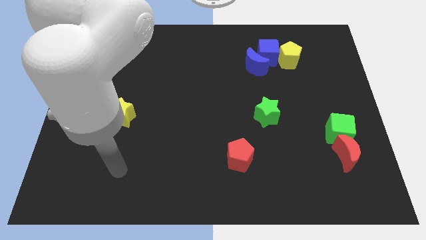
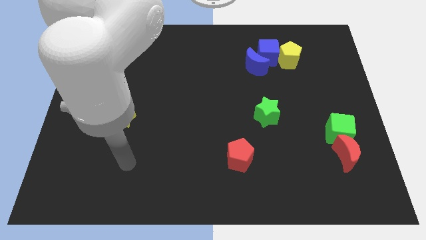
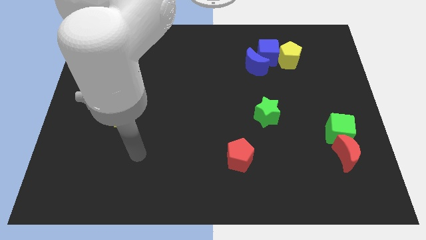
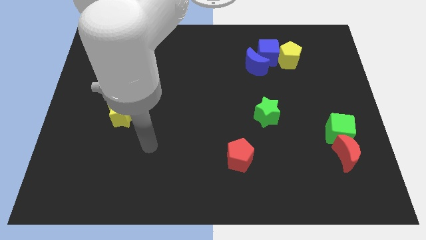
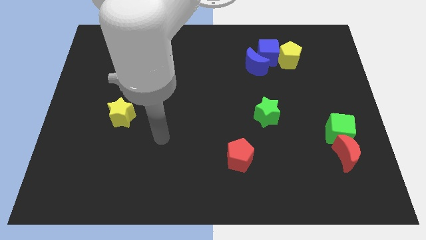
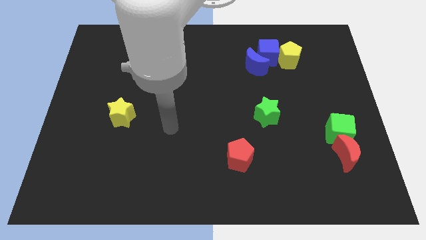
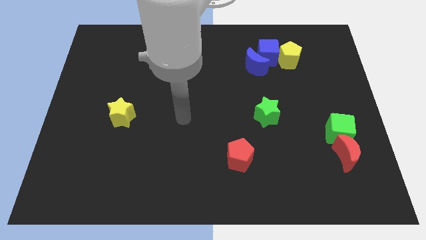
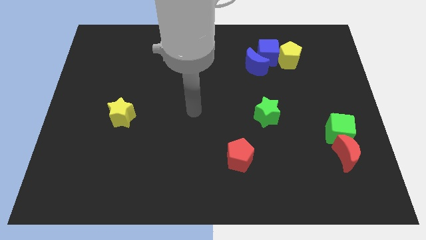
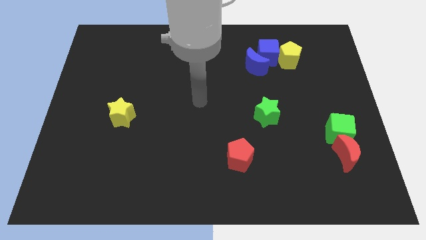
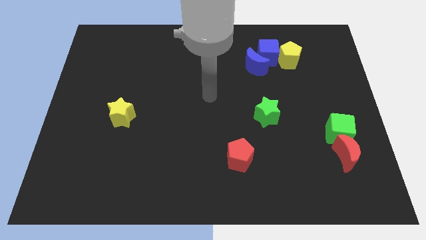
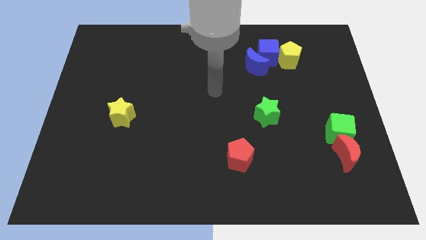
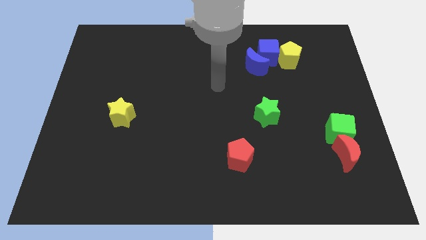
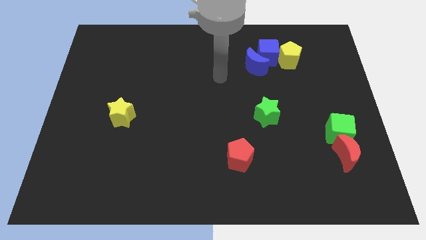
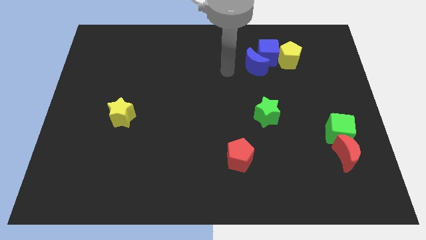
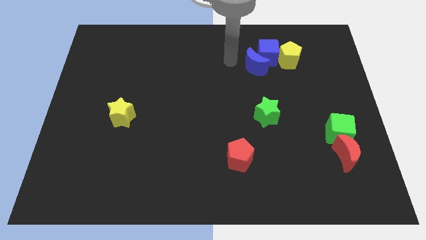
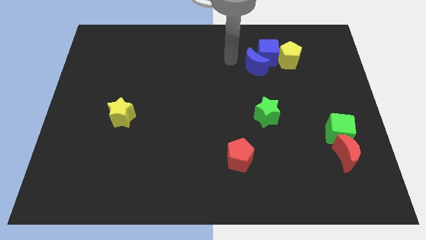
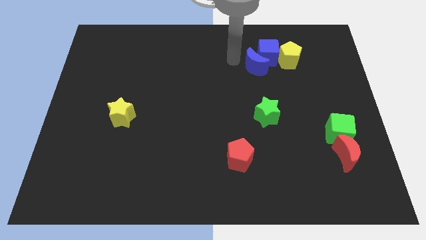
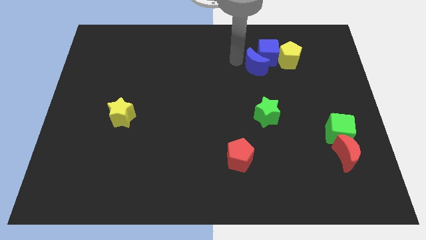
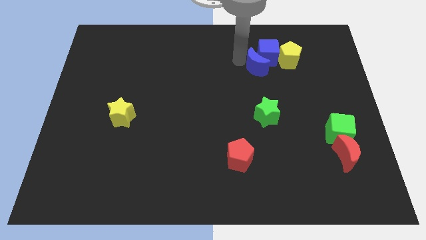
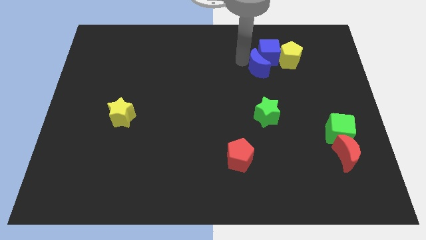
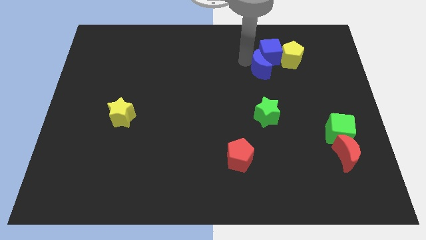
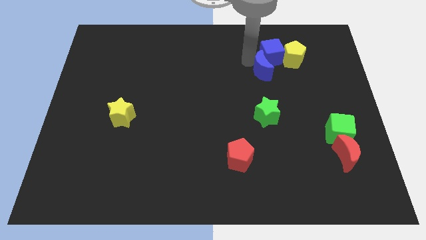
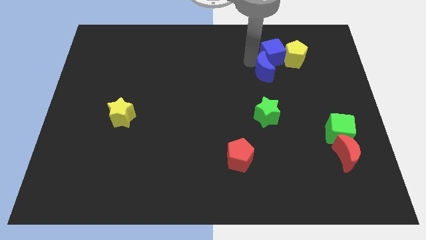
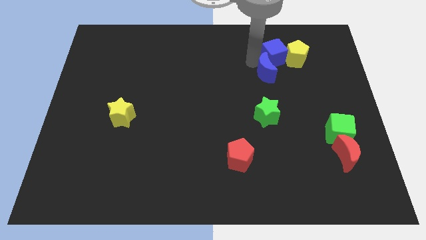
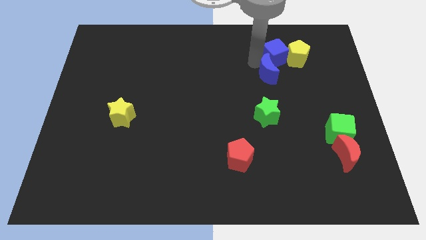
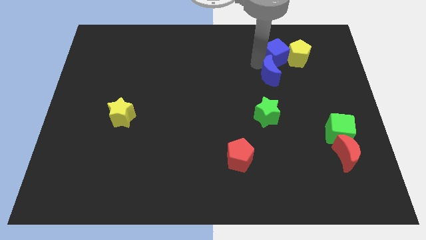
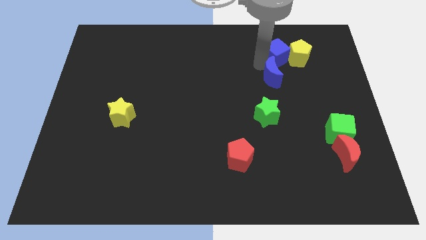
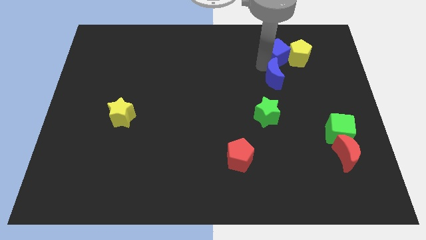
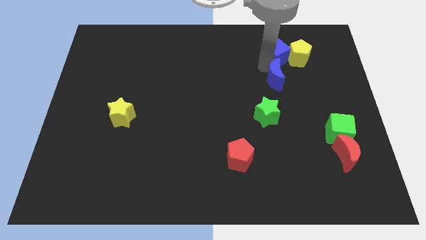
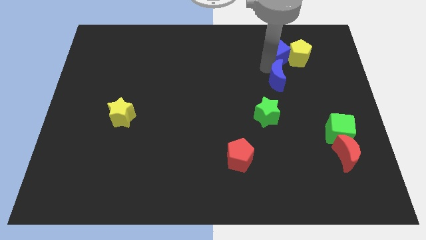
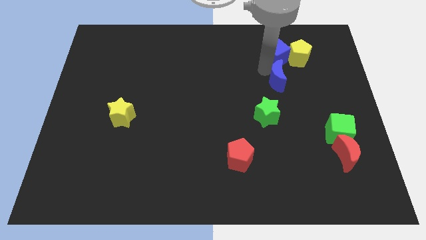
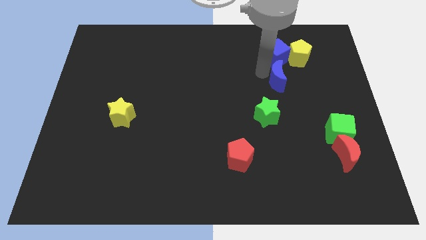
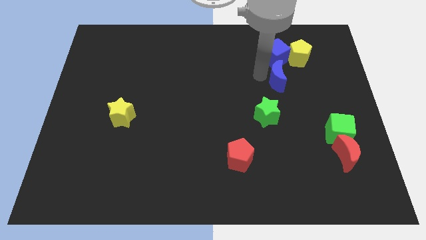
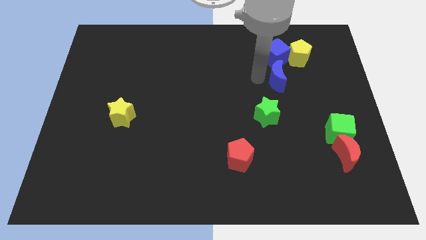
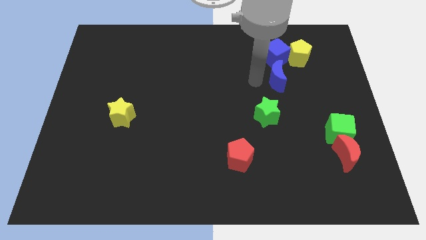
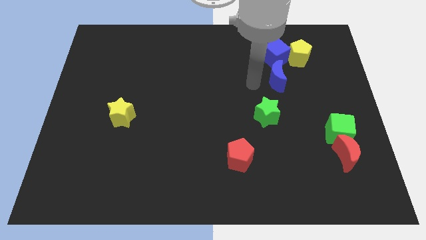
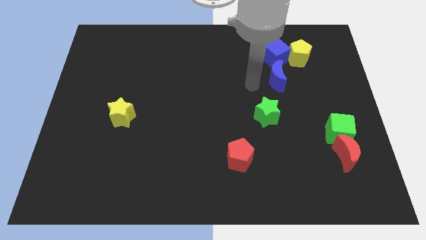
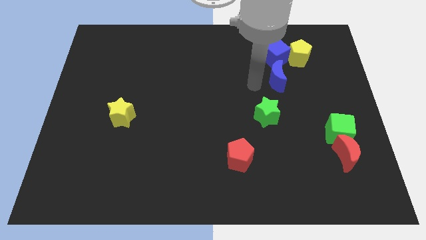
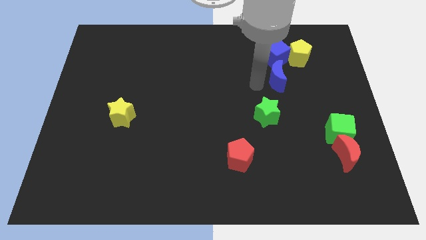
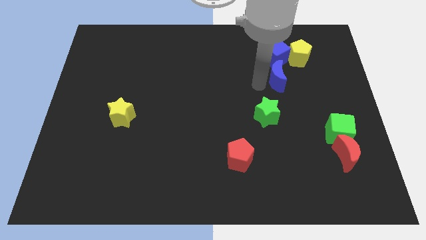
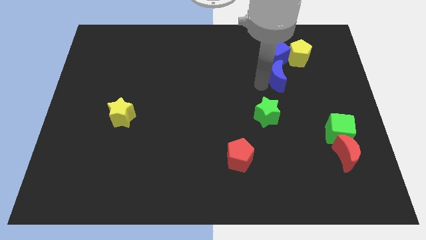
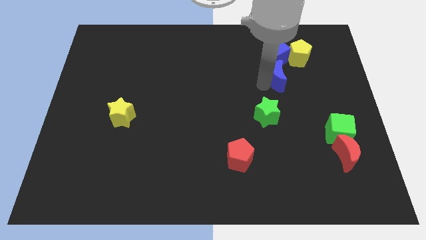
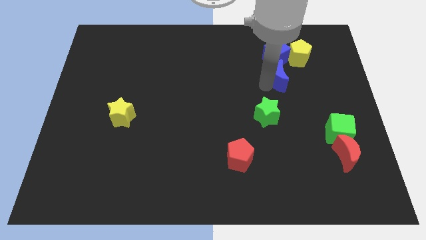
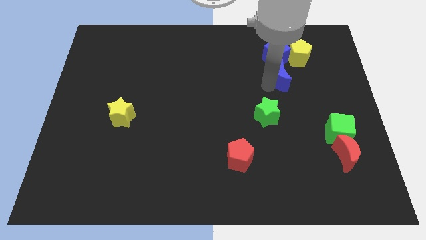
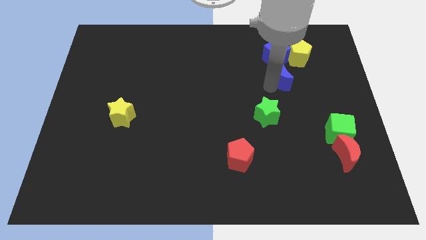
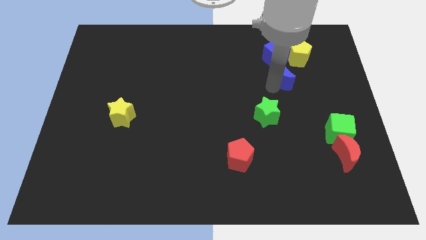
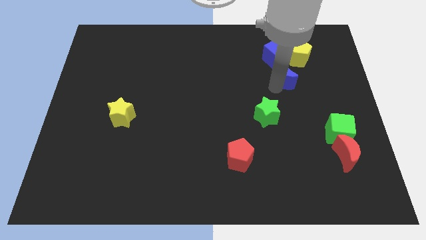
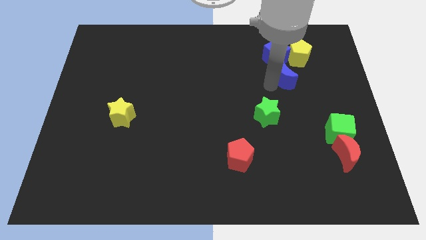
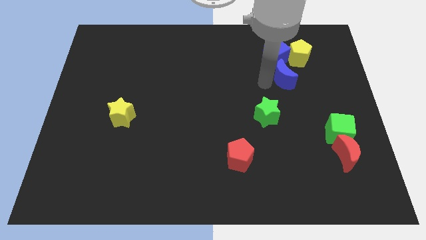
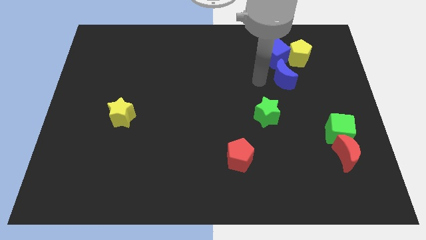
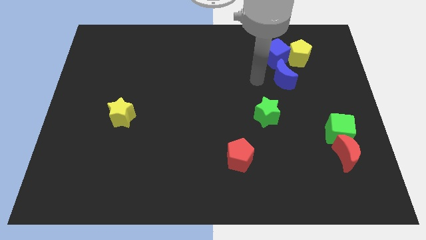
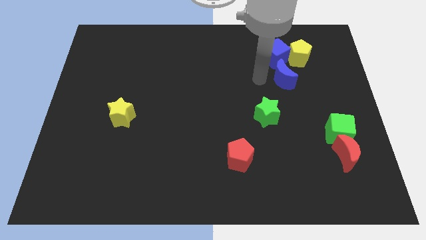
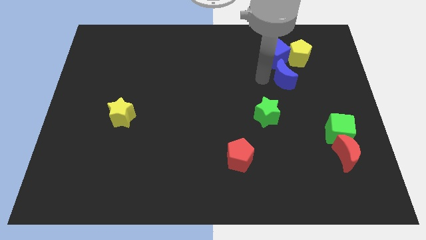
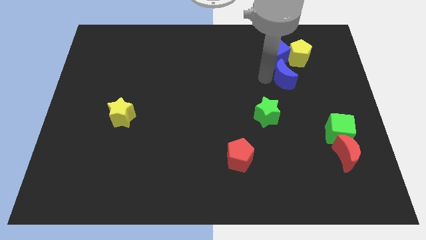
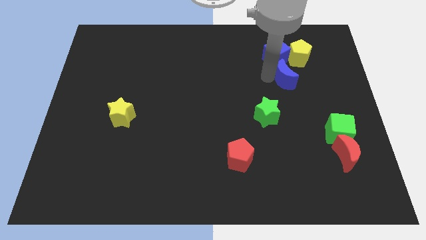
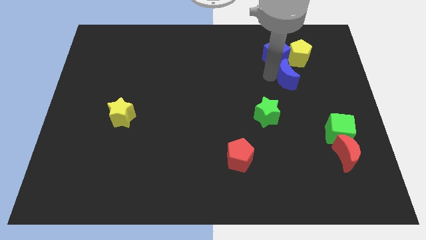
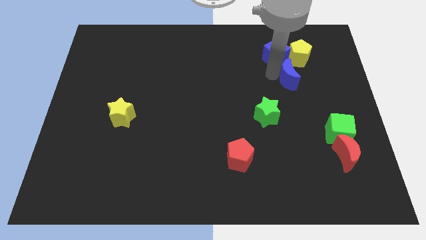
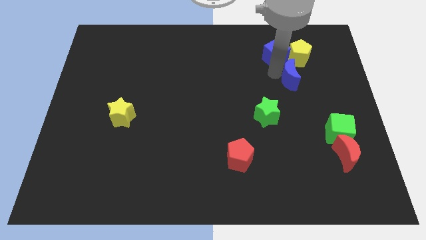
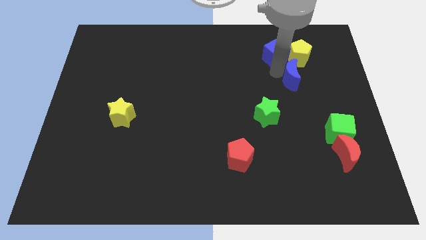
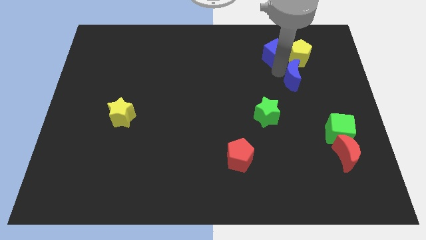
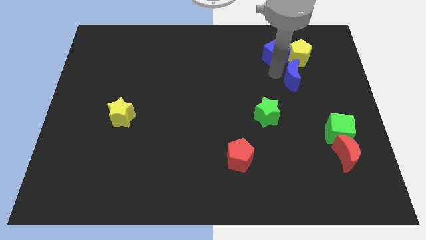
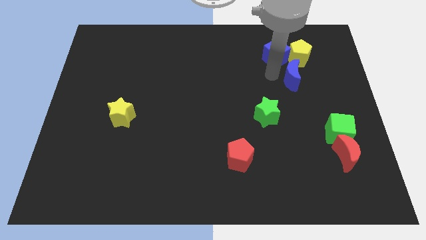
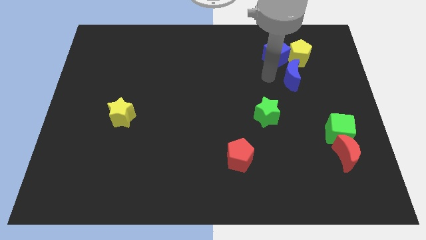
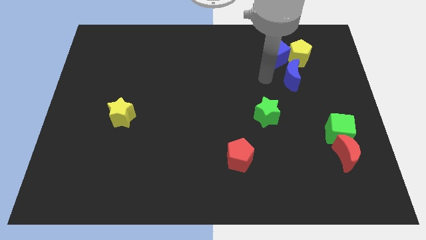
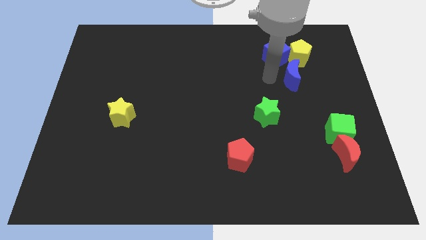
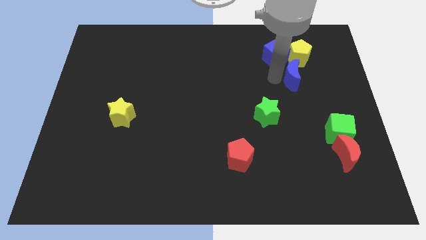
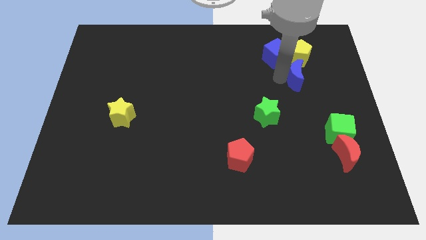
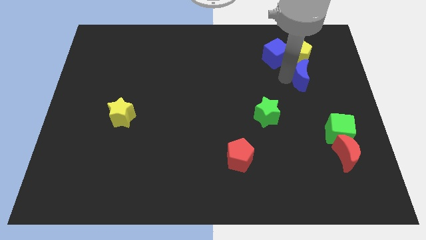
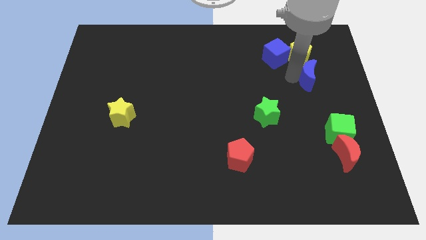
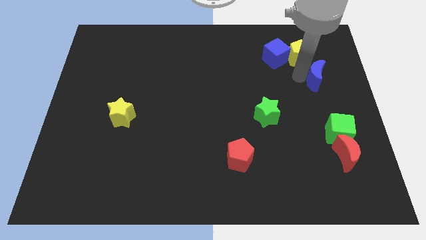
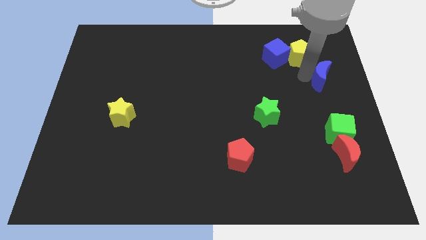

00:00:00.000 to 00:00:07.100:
move the blue moon to the center right
